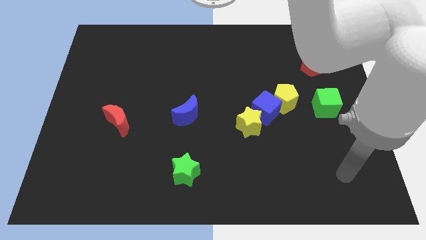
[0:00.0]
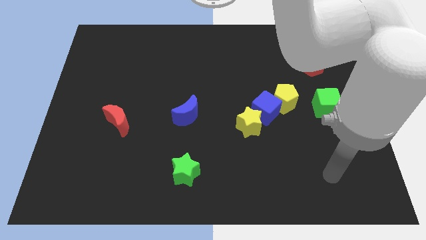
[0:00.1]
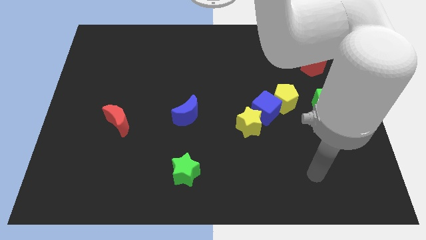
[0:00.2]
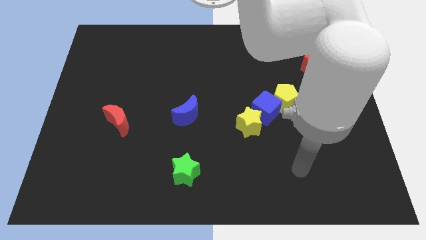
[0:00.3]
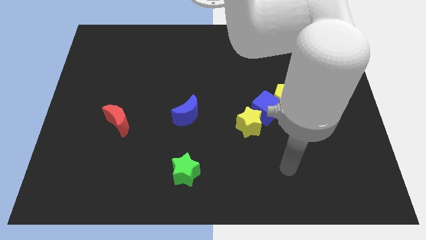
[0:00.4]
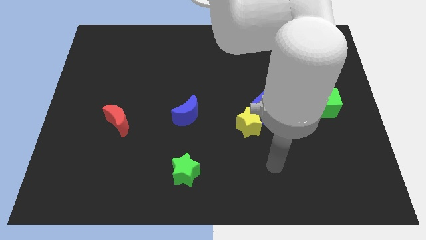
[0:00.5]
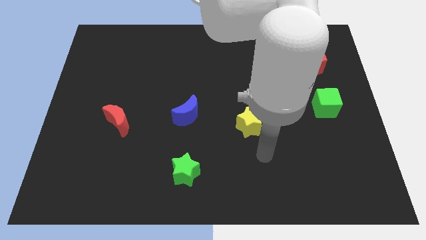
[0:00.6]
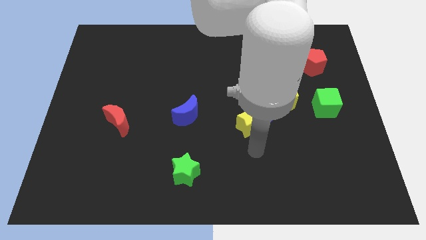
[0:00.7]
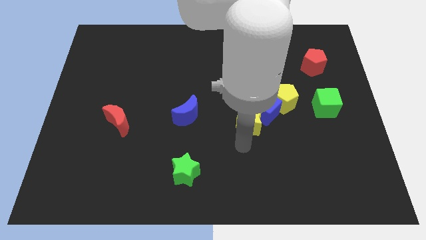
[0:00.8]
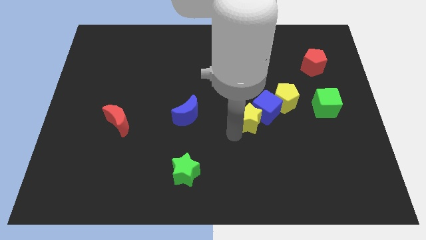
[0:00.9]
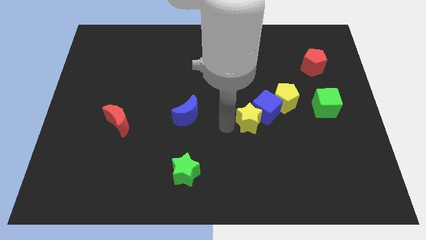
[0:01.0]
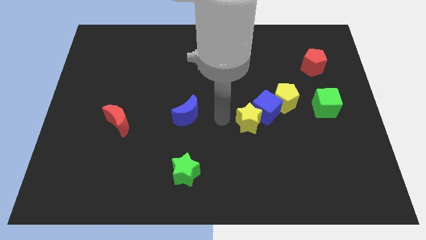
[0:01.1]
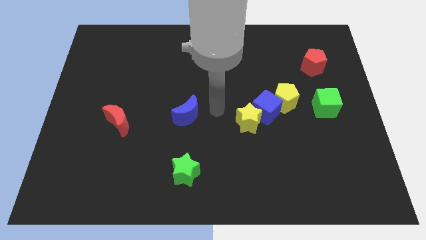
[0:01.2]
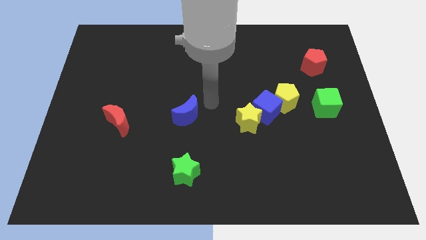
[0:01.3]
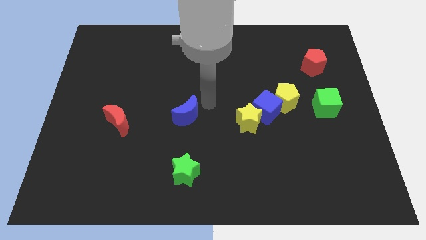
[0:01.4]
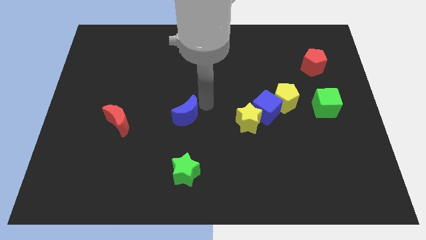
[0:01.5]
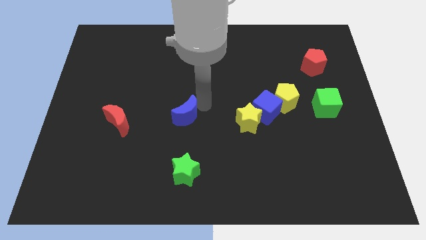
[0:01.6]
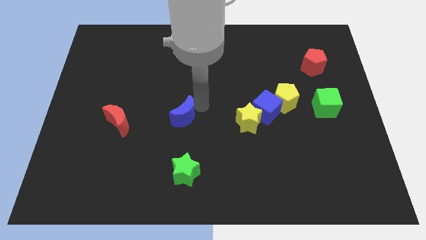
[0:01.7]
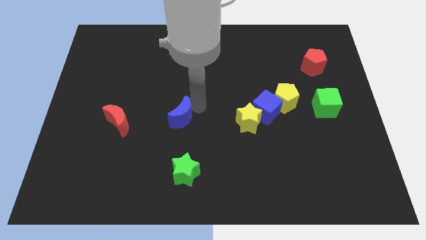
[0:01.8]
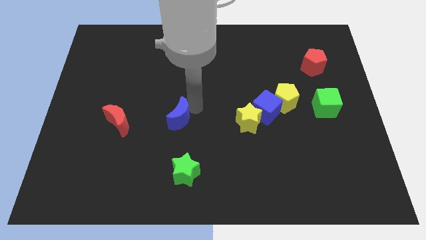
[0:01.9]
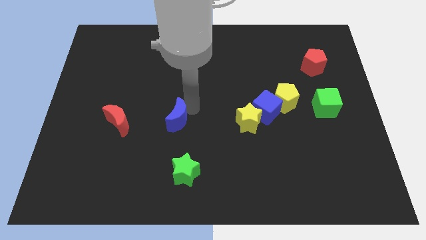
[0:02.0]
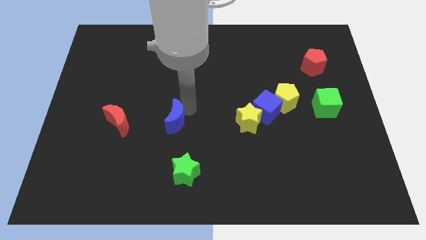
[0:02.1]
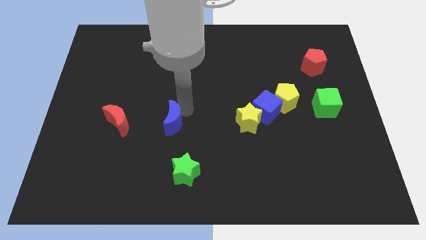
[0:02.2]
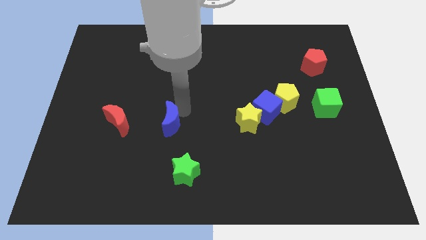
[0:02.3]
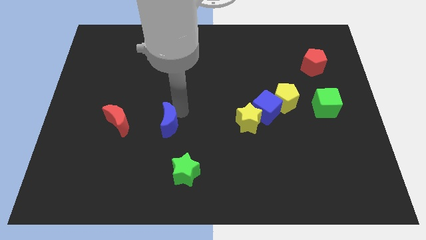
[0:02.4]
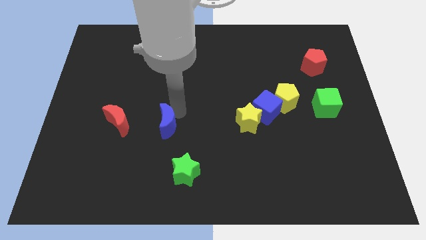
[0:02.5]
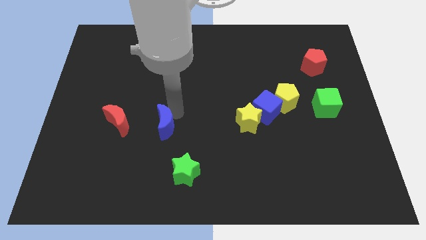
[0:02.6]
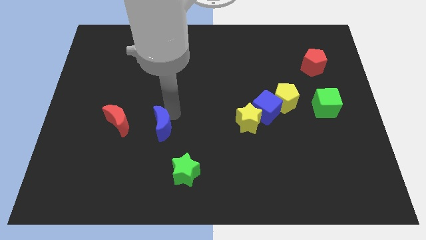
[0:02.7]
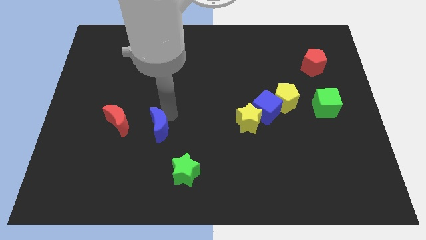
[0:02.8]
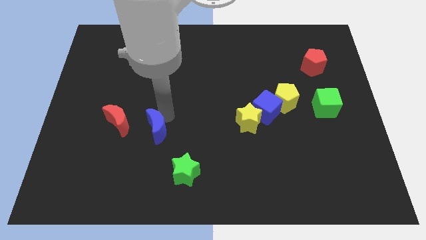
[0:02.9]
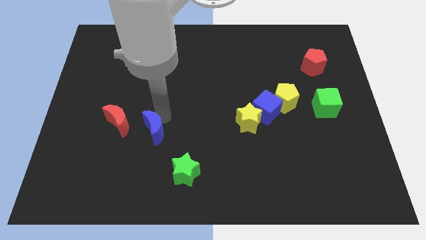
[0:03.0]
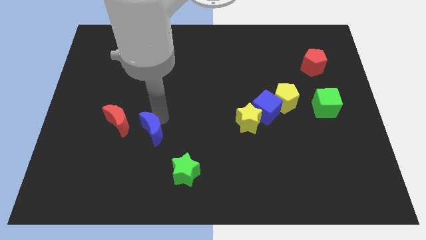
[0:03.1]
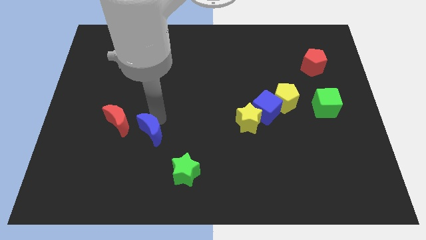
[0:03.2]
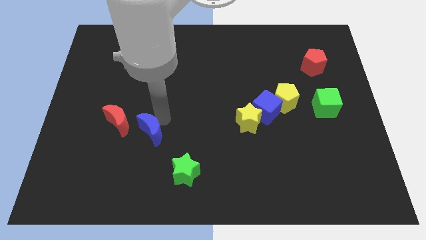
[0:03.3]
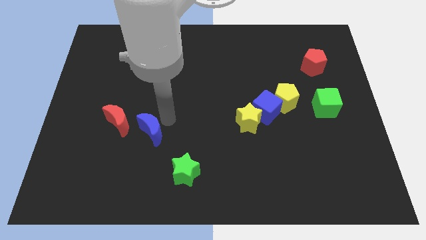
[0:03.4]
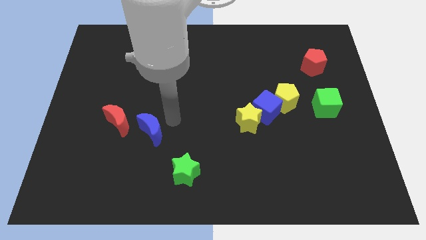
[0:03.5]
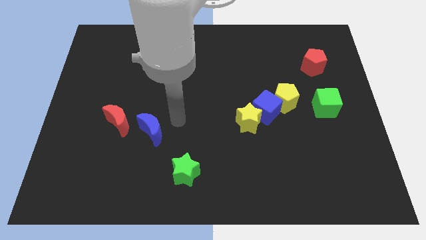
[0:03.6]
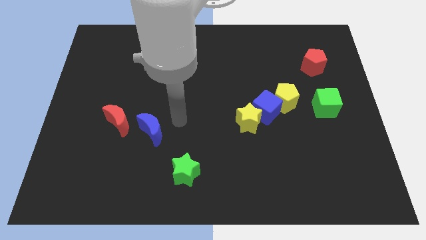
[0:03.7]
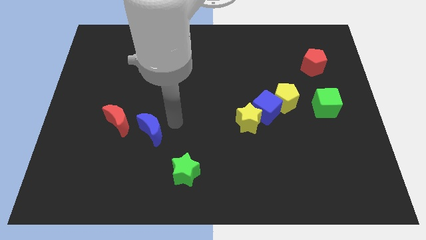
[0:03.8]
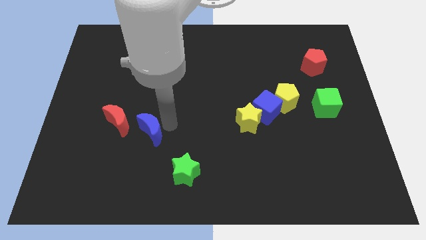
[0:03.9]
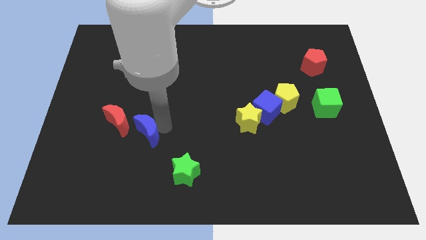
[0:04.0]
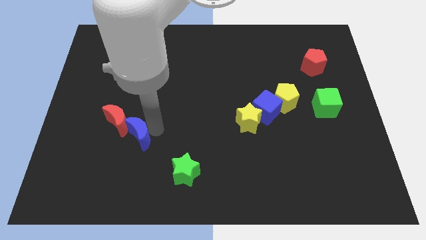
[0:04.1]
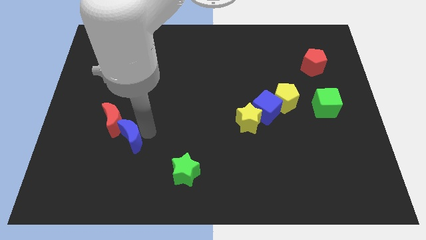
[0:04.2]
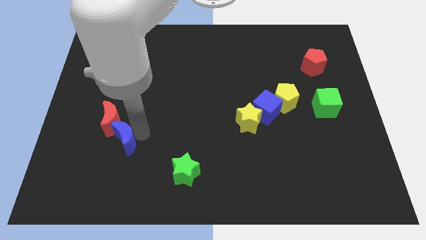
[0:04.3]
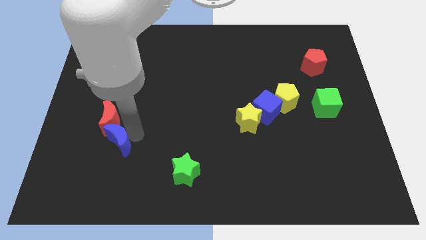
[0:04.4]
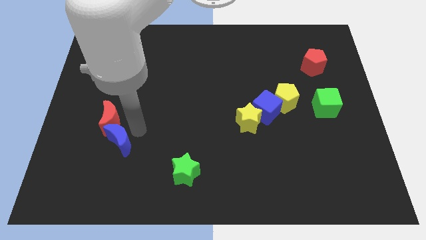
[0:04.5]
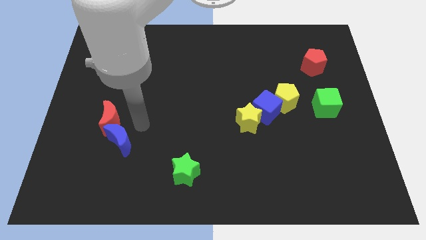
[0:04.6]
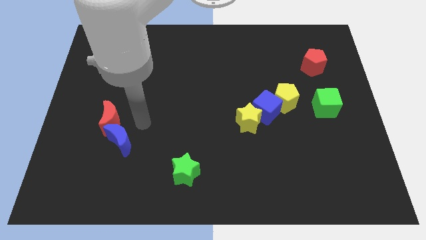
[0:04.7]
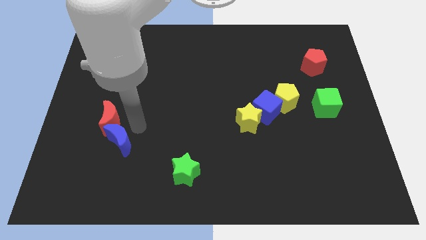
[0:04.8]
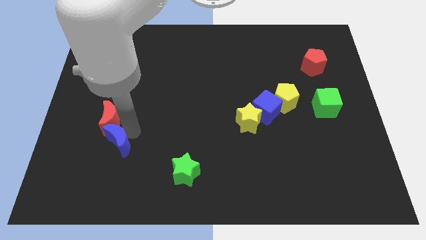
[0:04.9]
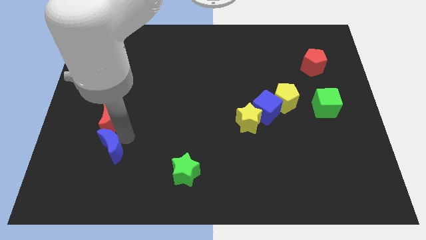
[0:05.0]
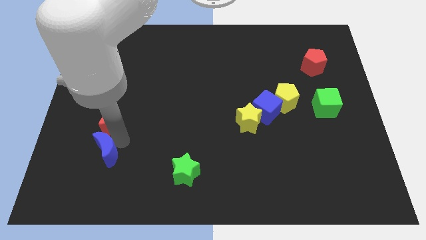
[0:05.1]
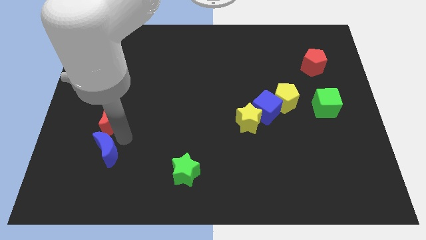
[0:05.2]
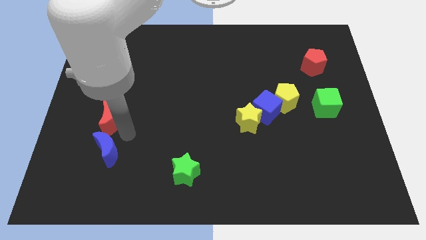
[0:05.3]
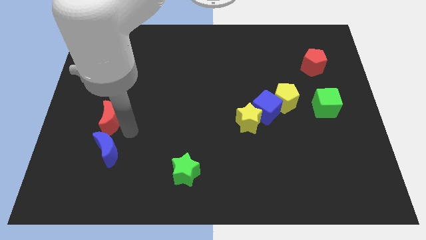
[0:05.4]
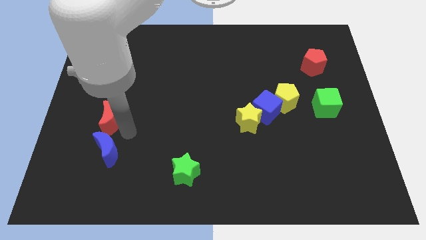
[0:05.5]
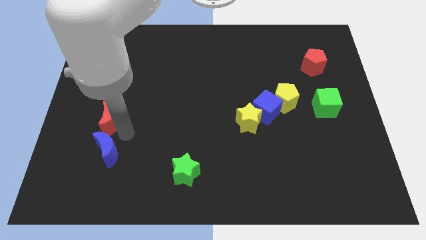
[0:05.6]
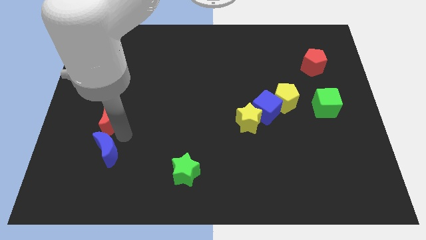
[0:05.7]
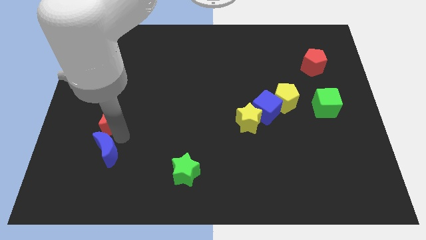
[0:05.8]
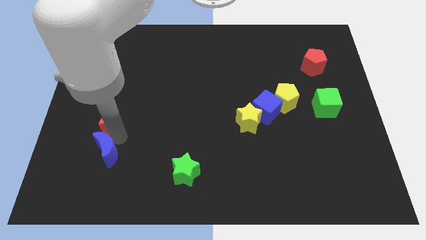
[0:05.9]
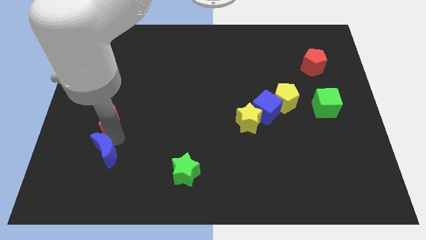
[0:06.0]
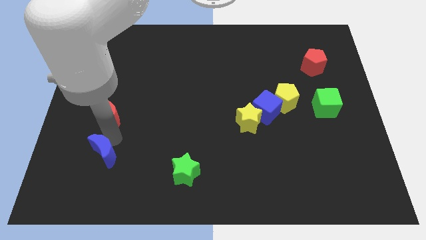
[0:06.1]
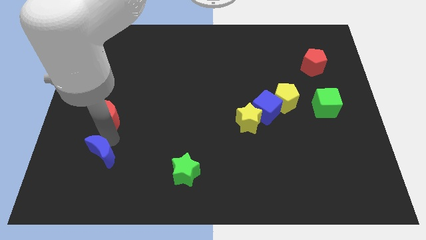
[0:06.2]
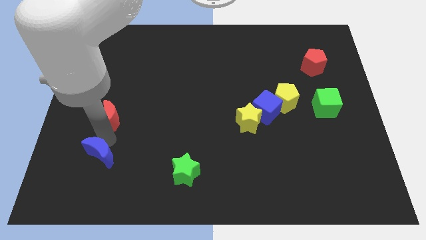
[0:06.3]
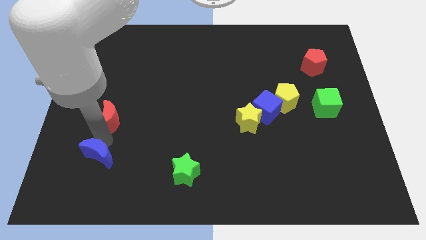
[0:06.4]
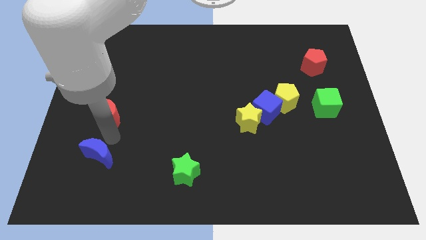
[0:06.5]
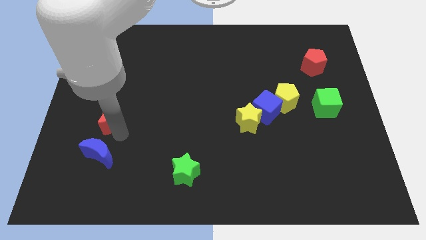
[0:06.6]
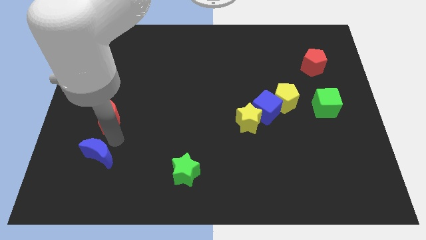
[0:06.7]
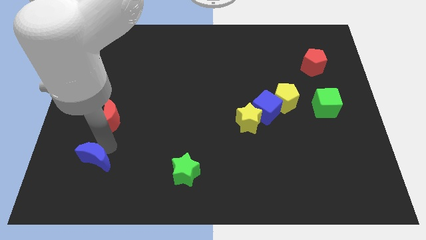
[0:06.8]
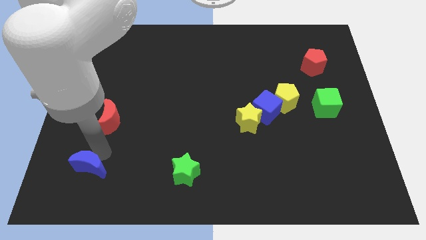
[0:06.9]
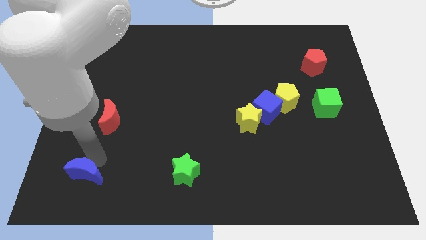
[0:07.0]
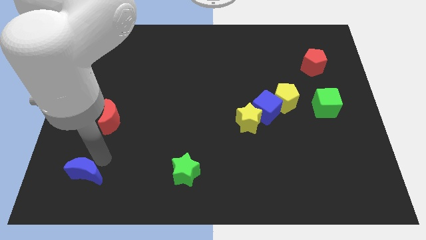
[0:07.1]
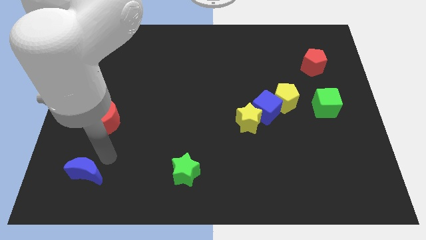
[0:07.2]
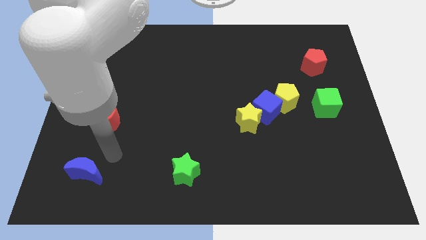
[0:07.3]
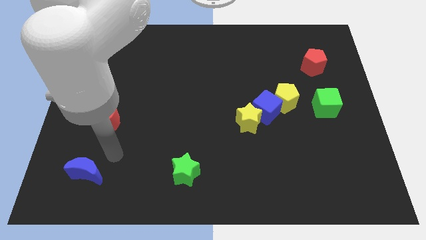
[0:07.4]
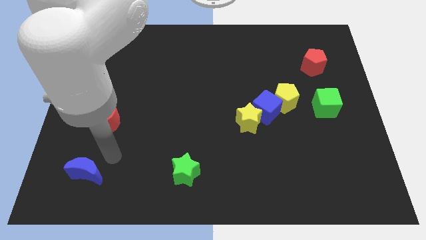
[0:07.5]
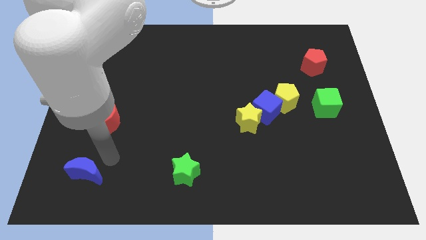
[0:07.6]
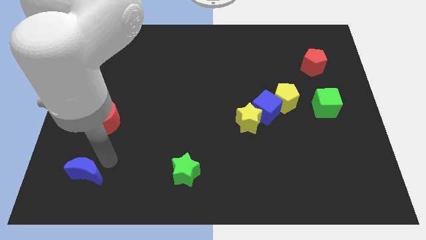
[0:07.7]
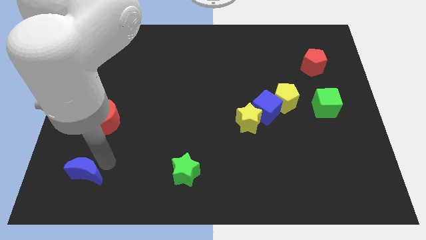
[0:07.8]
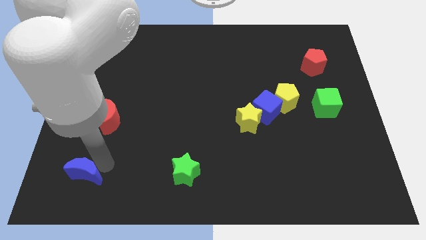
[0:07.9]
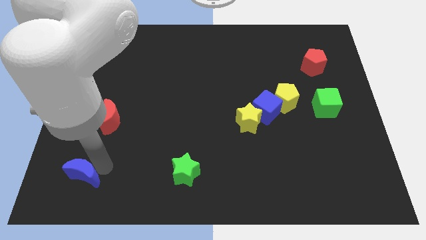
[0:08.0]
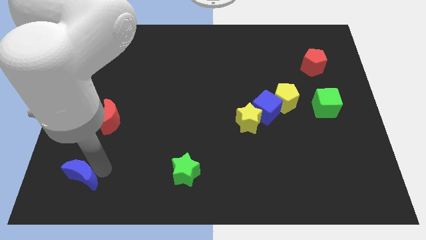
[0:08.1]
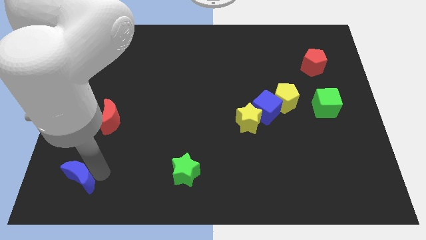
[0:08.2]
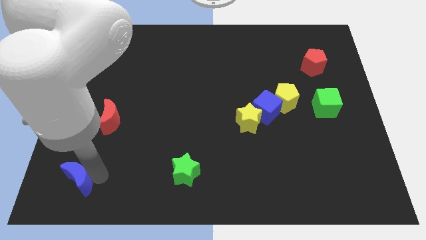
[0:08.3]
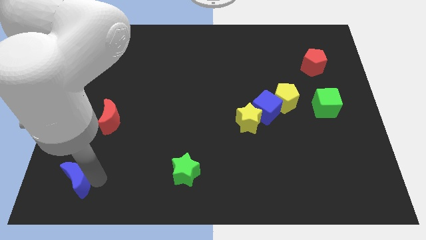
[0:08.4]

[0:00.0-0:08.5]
push the blue moon to the lower left corner
